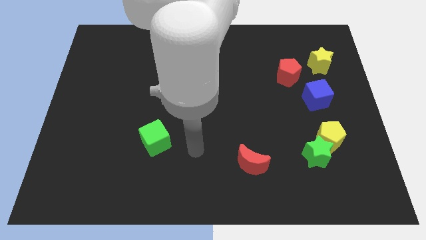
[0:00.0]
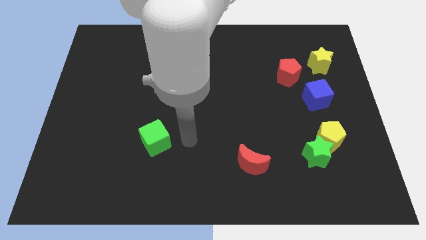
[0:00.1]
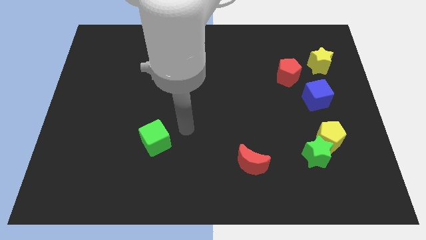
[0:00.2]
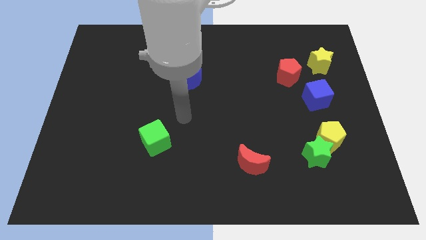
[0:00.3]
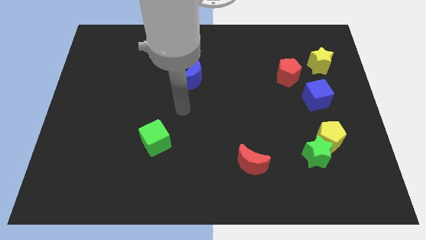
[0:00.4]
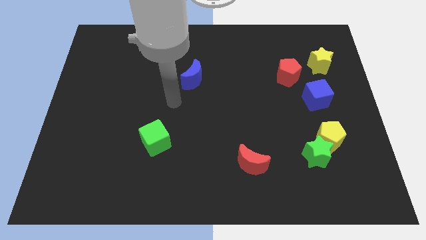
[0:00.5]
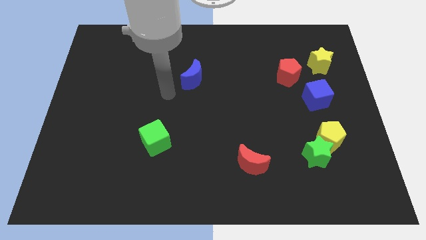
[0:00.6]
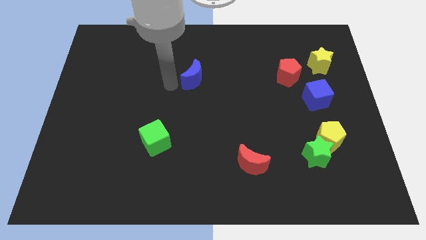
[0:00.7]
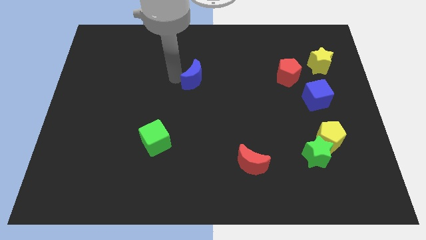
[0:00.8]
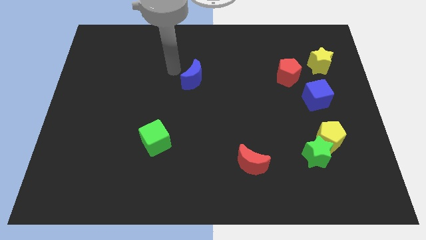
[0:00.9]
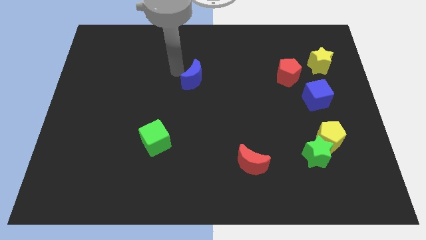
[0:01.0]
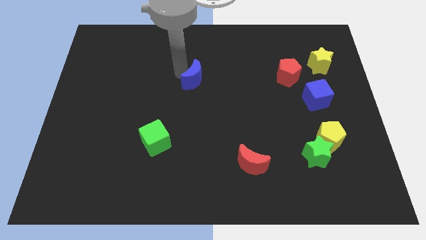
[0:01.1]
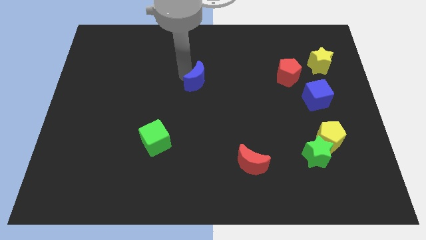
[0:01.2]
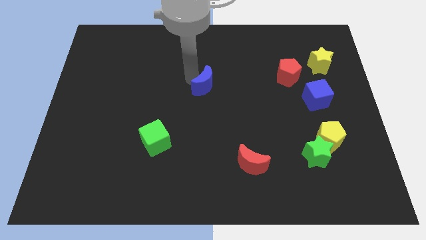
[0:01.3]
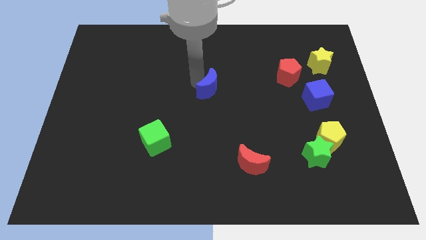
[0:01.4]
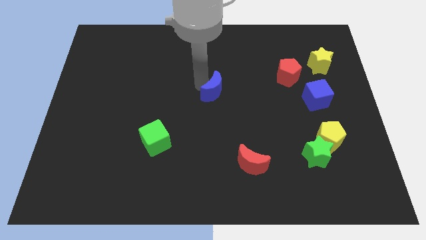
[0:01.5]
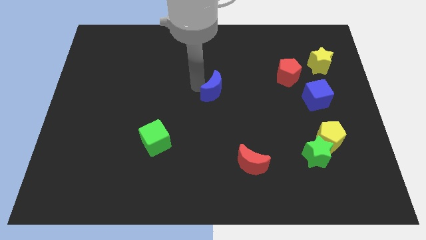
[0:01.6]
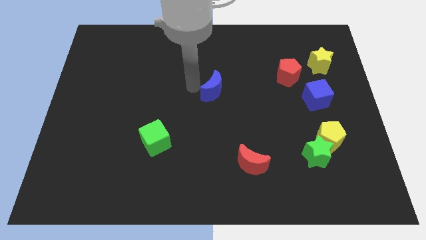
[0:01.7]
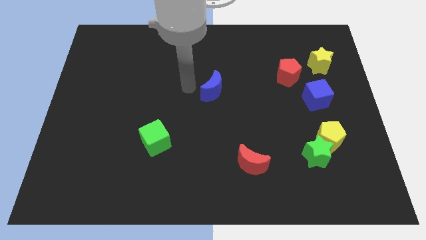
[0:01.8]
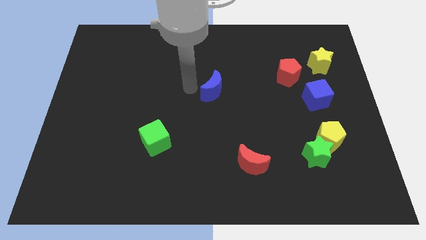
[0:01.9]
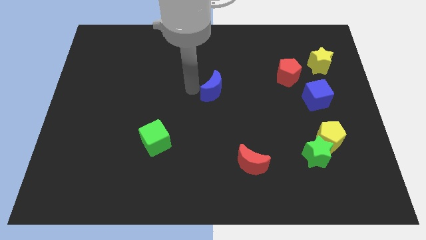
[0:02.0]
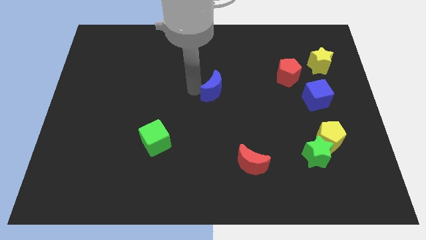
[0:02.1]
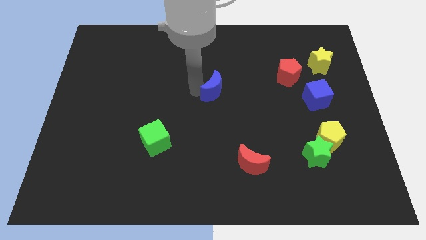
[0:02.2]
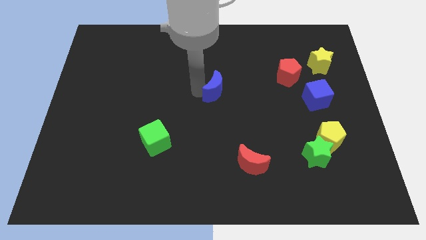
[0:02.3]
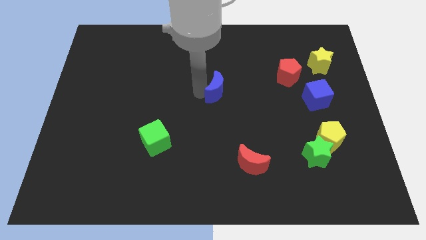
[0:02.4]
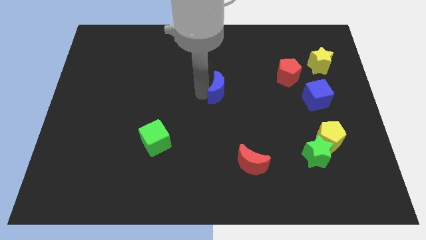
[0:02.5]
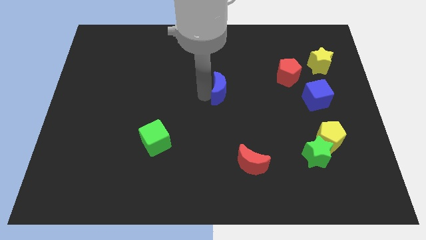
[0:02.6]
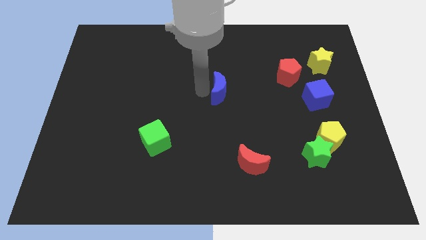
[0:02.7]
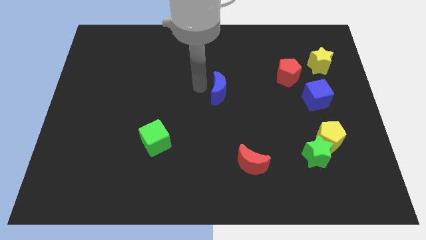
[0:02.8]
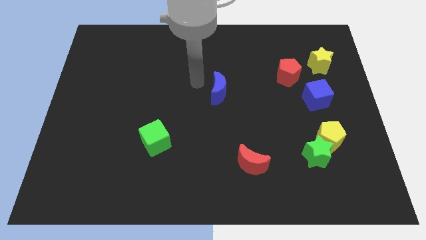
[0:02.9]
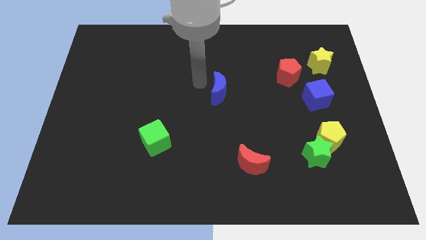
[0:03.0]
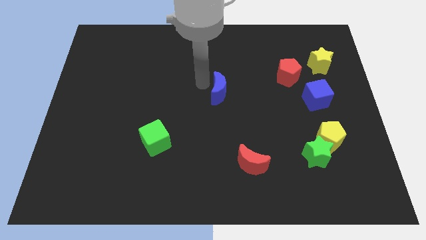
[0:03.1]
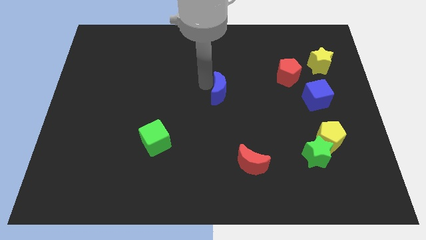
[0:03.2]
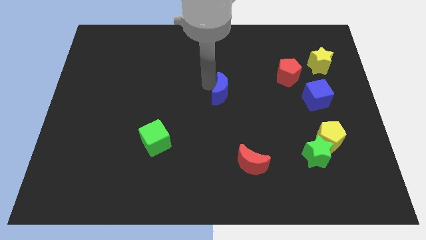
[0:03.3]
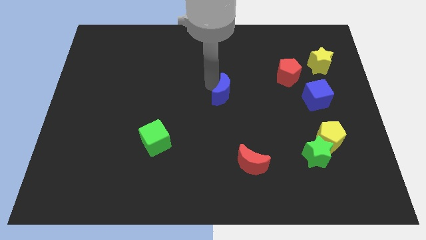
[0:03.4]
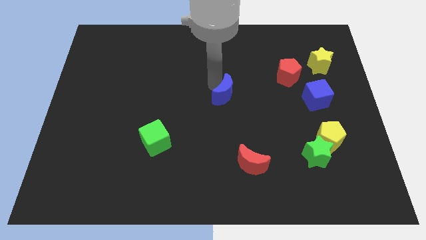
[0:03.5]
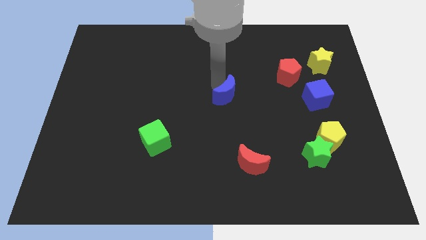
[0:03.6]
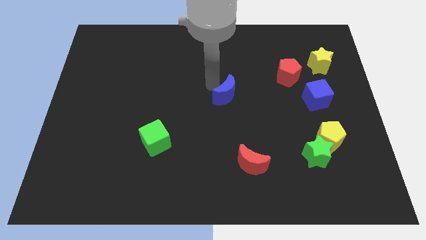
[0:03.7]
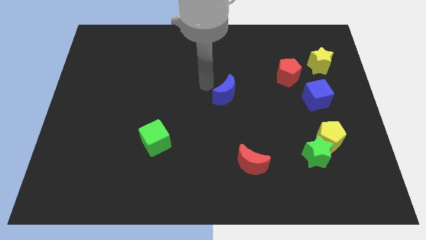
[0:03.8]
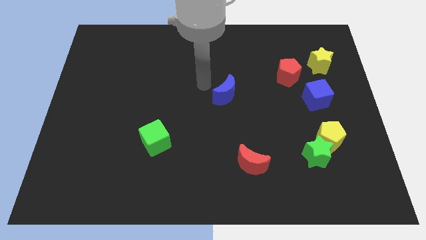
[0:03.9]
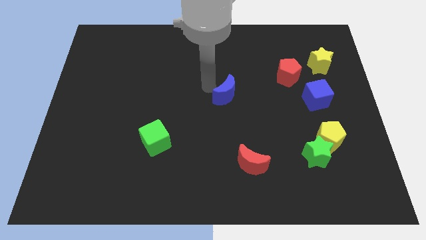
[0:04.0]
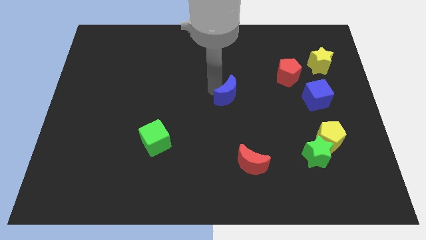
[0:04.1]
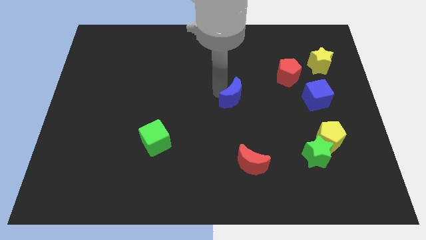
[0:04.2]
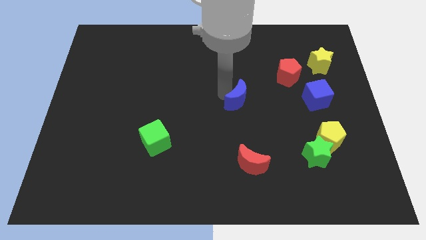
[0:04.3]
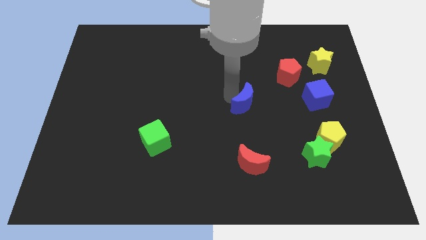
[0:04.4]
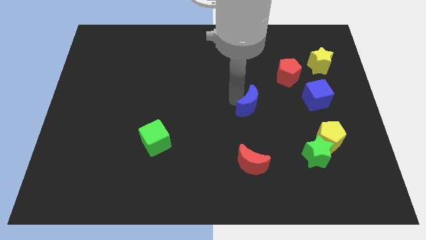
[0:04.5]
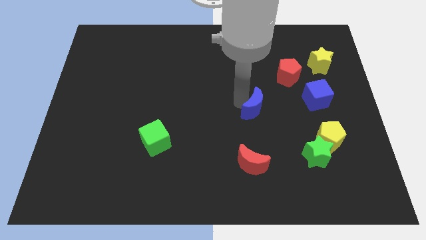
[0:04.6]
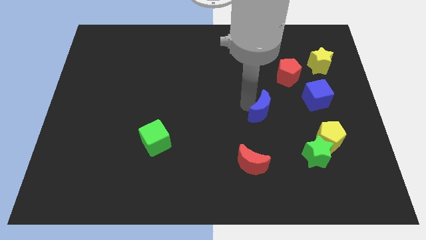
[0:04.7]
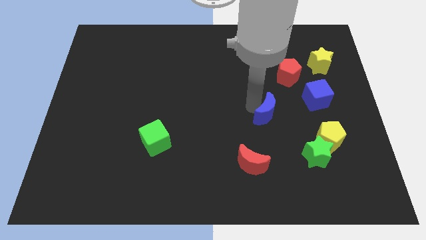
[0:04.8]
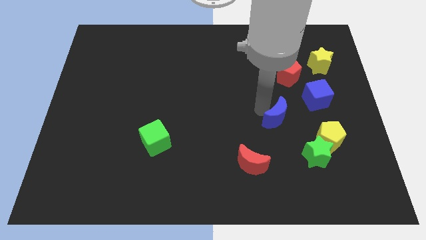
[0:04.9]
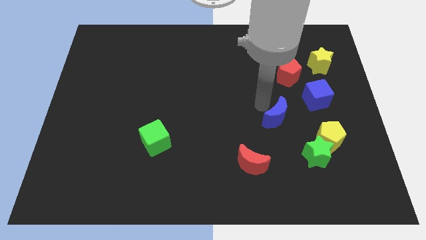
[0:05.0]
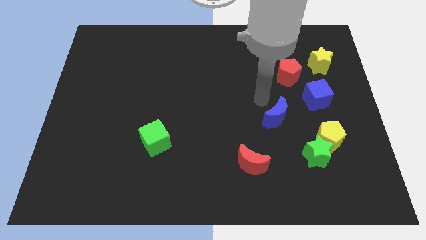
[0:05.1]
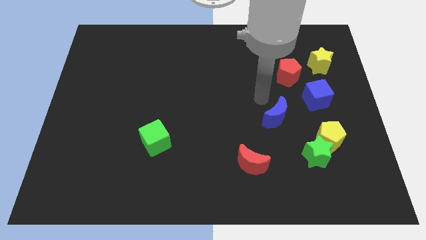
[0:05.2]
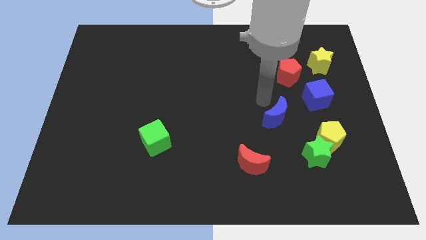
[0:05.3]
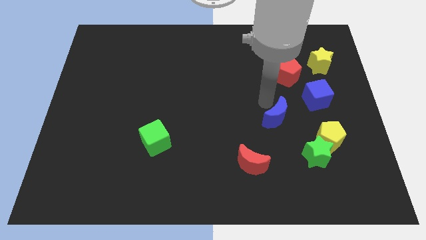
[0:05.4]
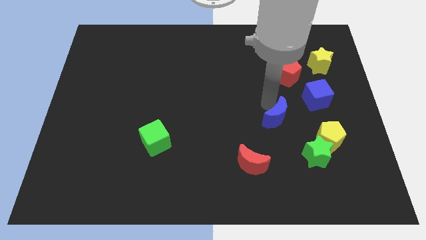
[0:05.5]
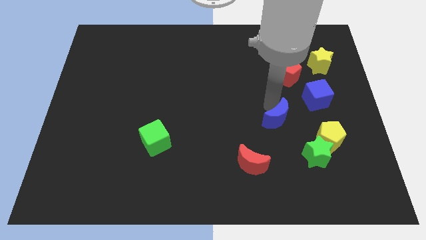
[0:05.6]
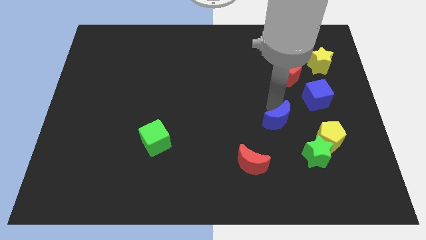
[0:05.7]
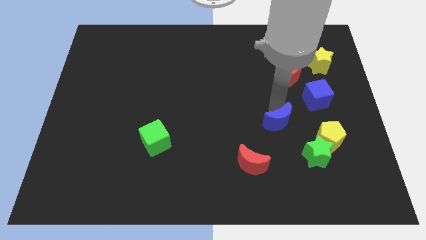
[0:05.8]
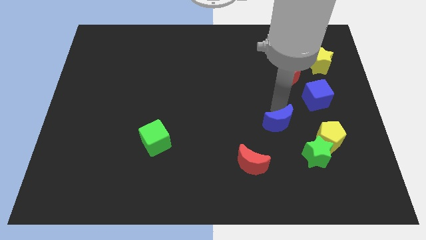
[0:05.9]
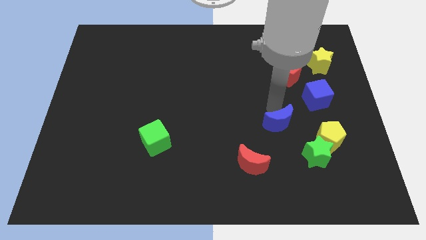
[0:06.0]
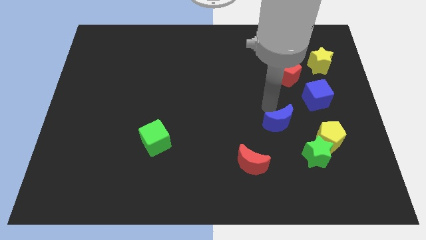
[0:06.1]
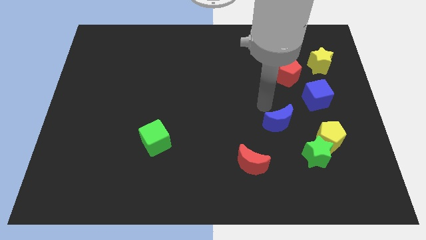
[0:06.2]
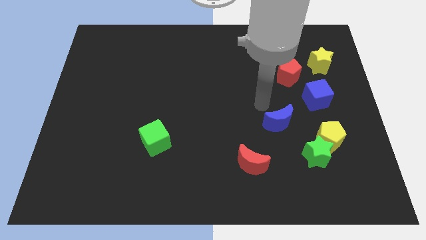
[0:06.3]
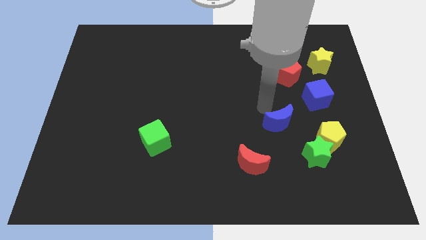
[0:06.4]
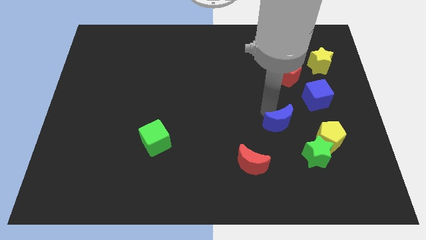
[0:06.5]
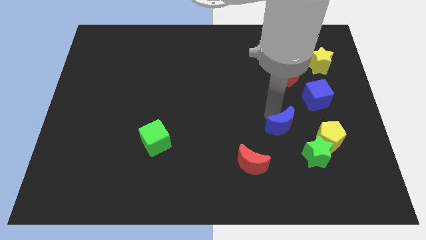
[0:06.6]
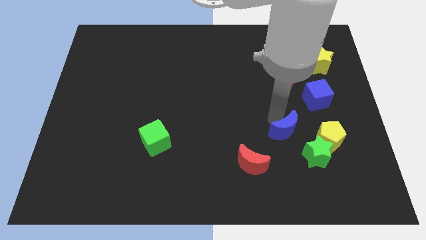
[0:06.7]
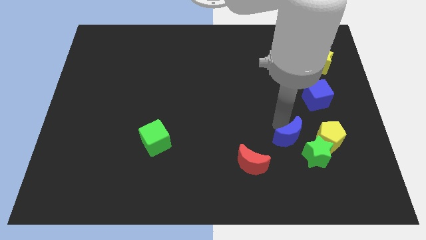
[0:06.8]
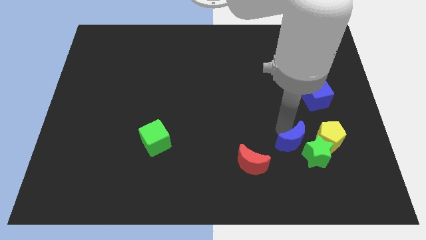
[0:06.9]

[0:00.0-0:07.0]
slide the blue moon towards the green star

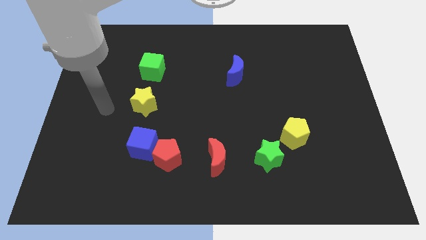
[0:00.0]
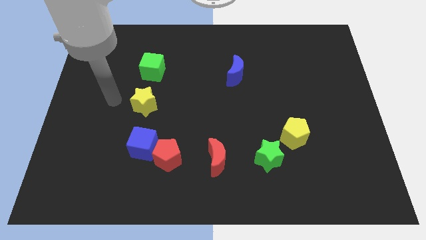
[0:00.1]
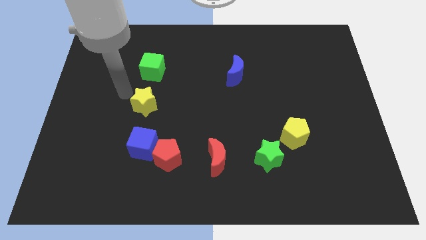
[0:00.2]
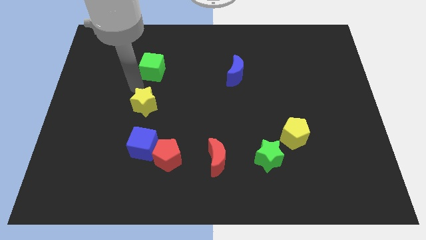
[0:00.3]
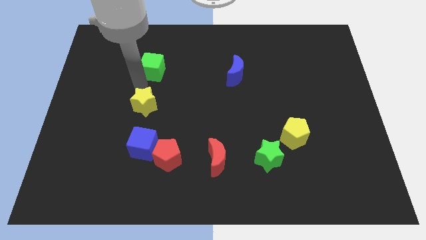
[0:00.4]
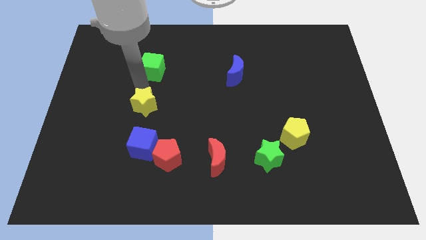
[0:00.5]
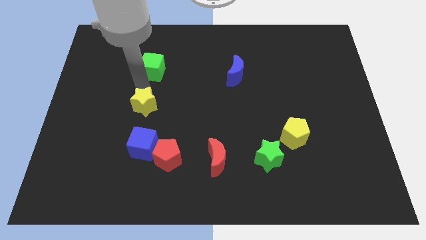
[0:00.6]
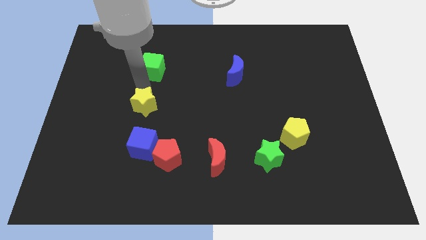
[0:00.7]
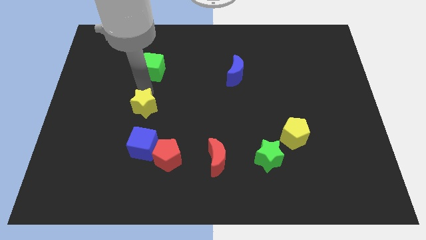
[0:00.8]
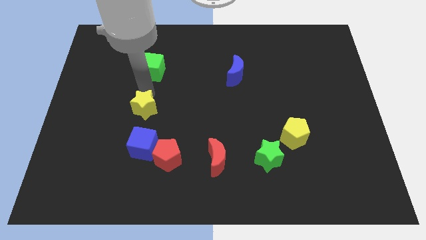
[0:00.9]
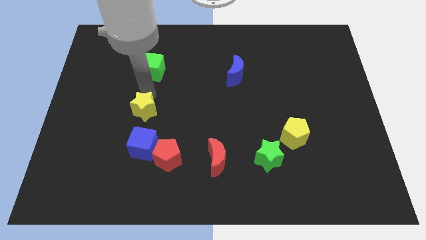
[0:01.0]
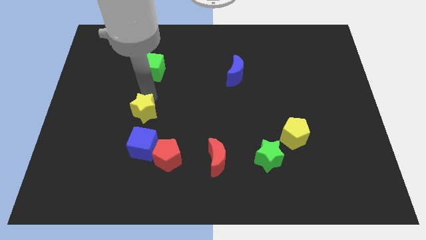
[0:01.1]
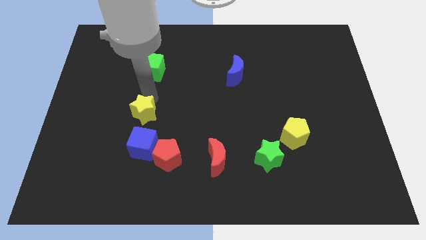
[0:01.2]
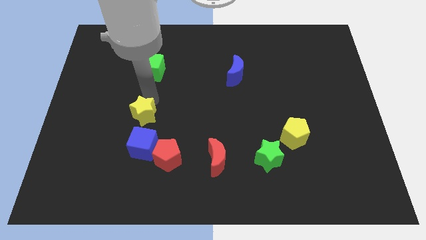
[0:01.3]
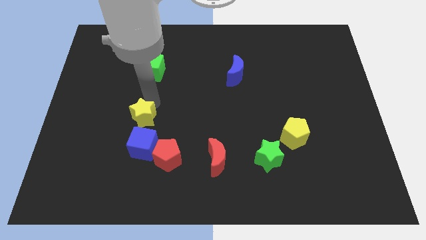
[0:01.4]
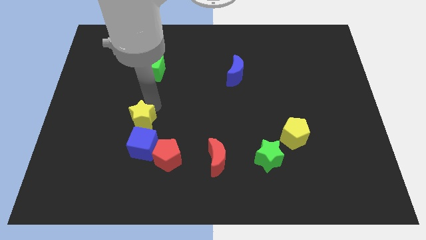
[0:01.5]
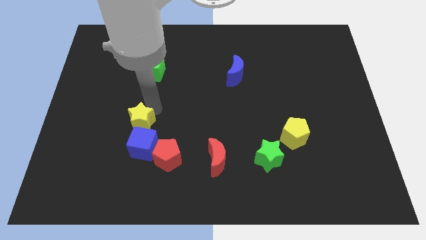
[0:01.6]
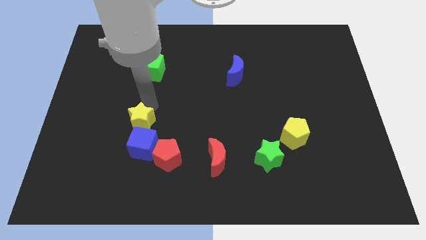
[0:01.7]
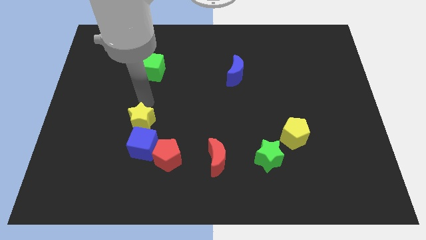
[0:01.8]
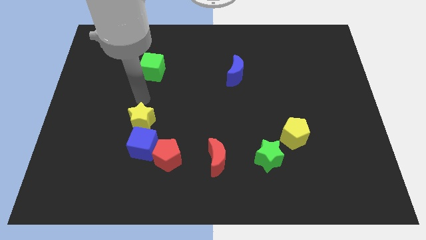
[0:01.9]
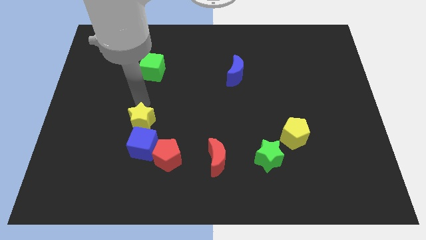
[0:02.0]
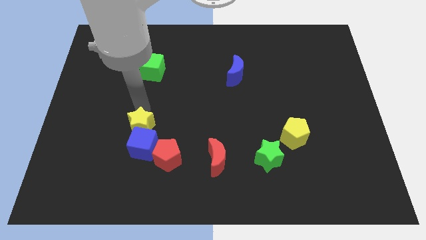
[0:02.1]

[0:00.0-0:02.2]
push the yellow star to the blue cube
